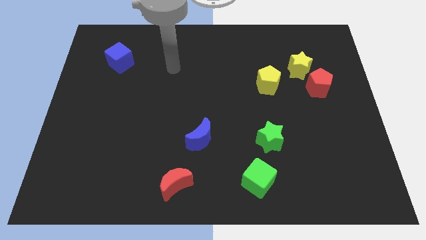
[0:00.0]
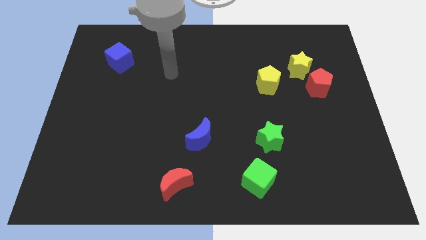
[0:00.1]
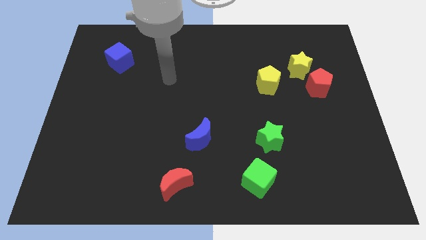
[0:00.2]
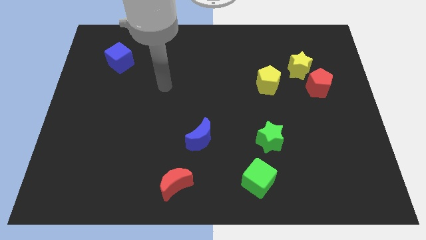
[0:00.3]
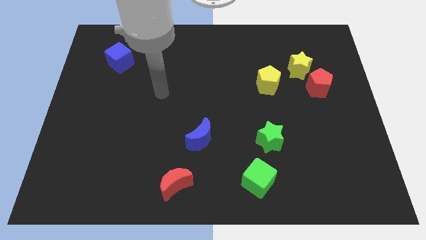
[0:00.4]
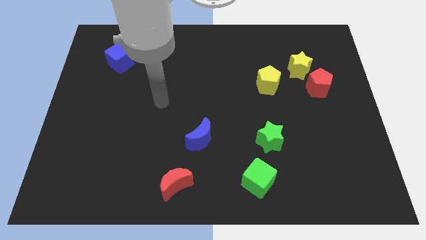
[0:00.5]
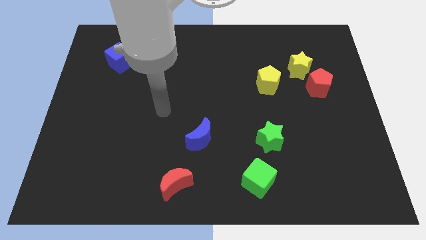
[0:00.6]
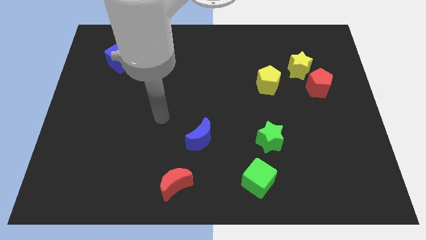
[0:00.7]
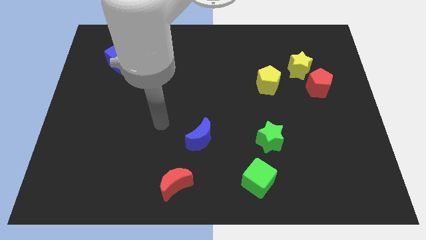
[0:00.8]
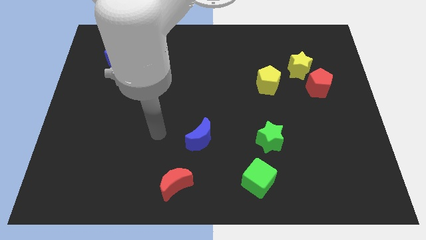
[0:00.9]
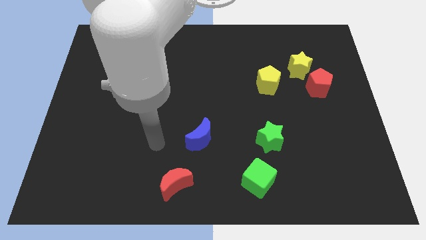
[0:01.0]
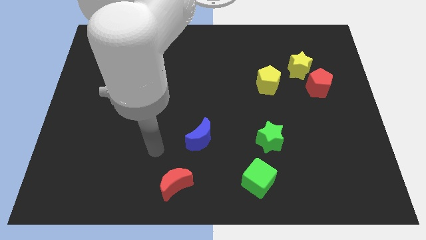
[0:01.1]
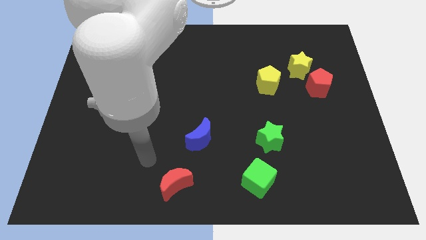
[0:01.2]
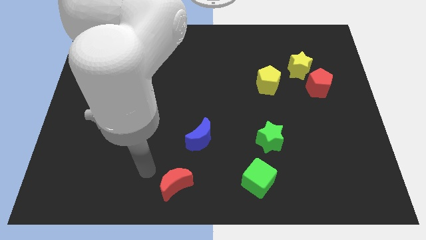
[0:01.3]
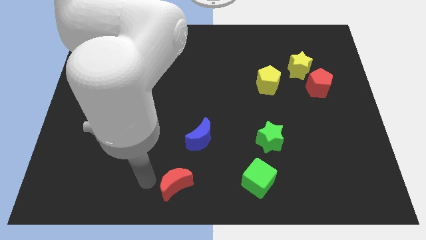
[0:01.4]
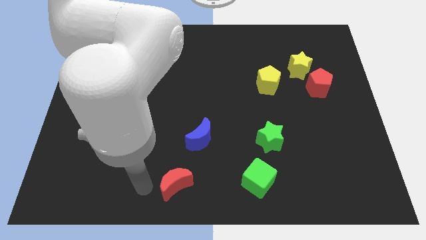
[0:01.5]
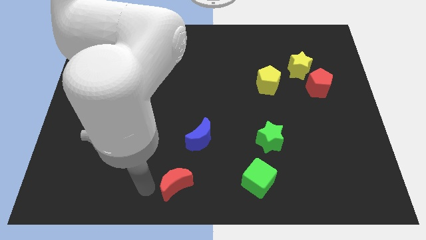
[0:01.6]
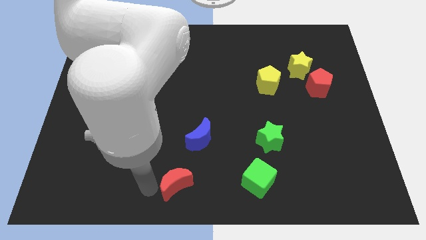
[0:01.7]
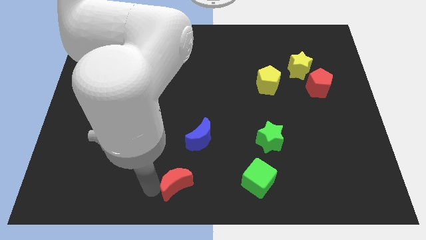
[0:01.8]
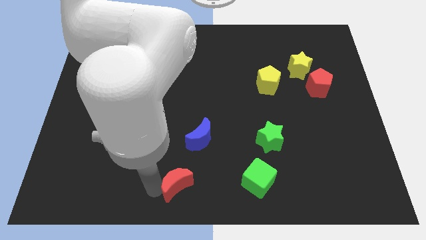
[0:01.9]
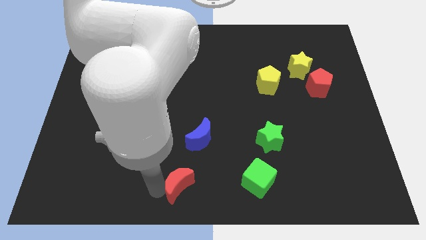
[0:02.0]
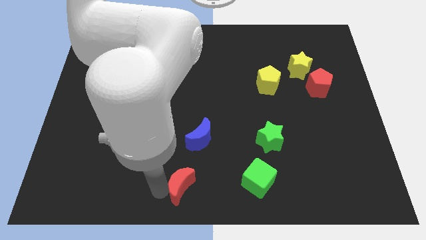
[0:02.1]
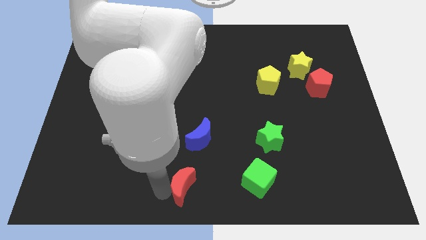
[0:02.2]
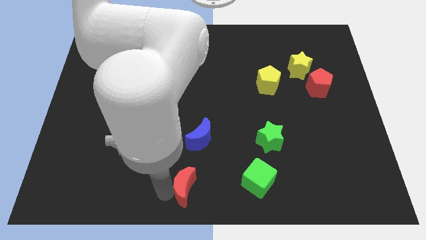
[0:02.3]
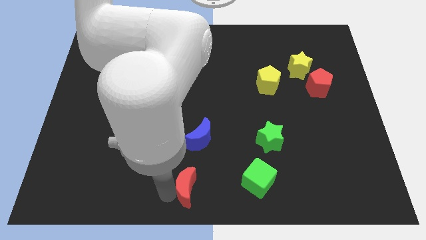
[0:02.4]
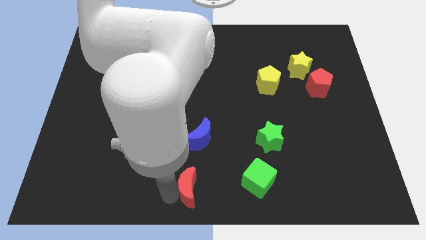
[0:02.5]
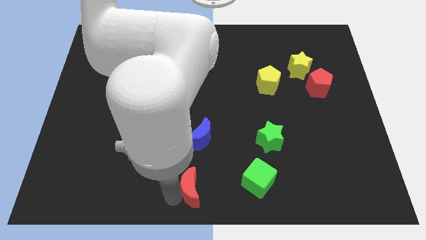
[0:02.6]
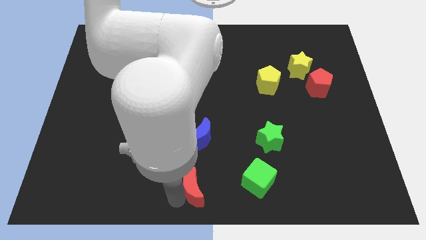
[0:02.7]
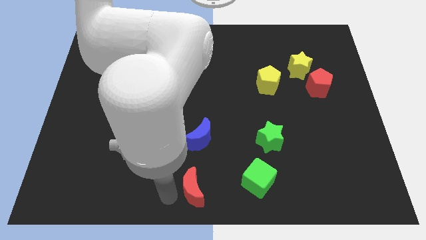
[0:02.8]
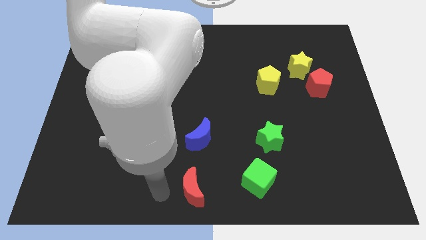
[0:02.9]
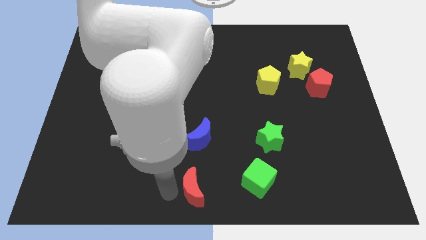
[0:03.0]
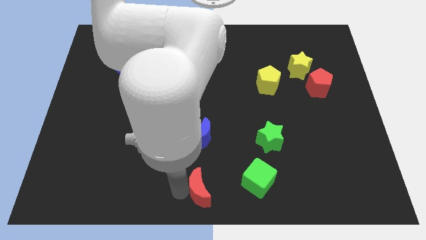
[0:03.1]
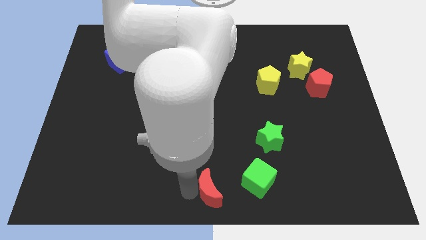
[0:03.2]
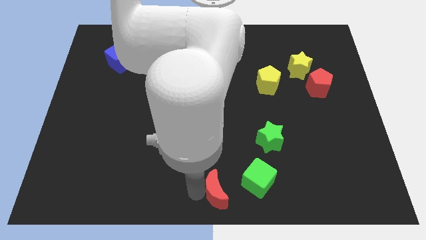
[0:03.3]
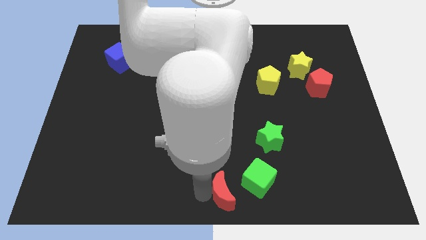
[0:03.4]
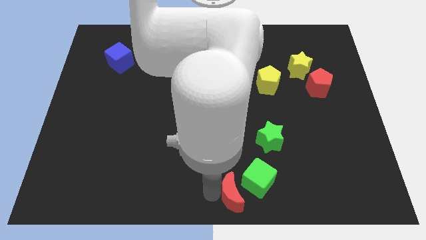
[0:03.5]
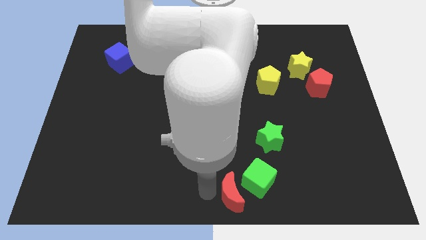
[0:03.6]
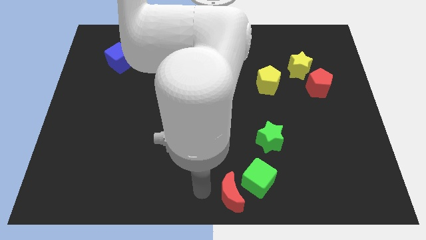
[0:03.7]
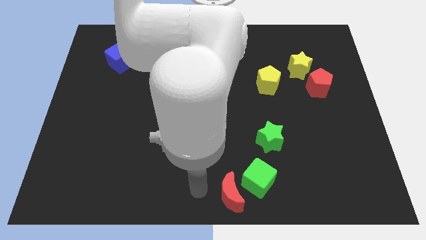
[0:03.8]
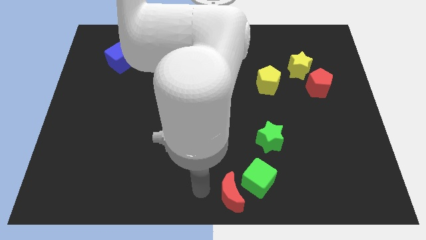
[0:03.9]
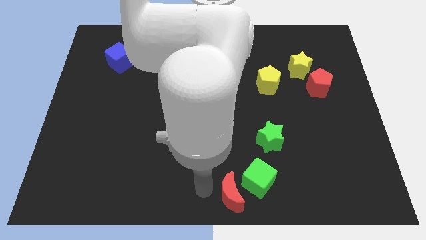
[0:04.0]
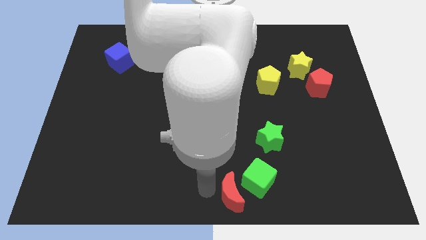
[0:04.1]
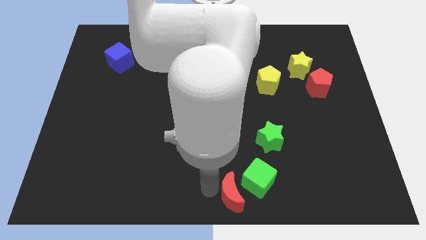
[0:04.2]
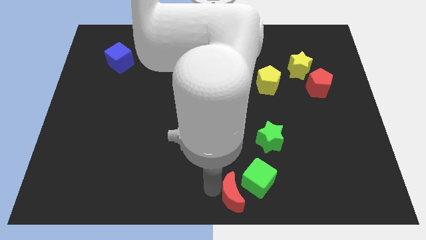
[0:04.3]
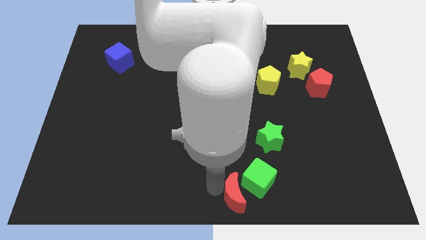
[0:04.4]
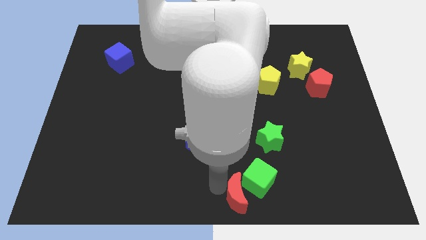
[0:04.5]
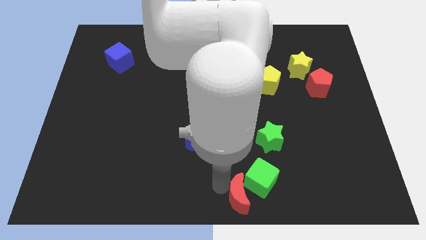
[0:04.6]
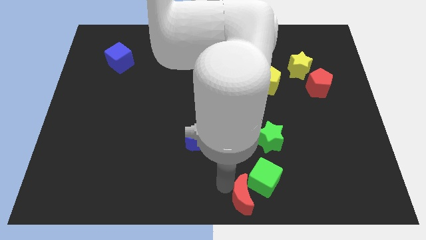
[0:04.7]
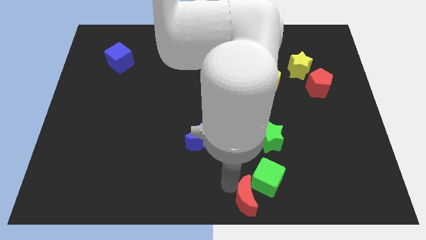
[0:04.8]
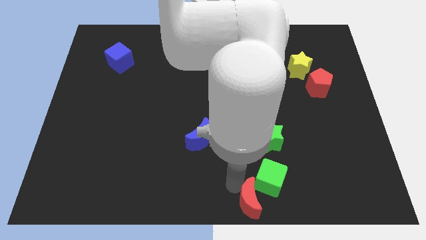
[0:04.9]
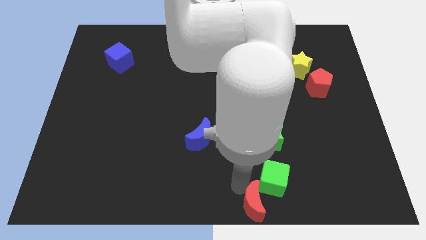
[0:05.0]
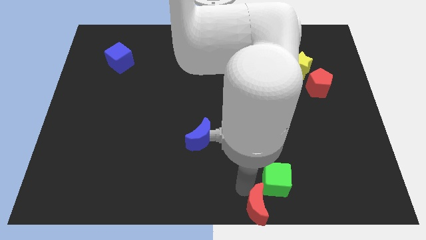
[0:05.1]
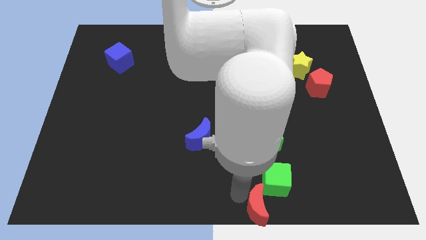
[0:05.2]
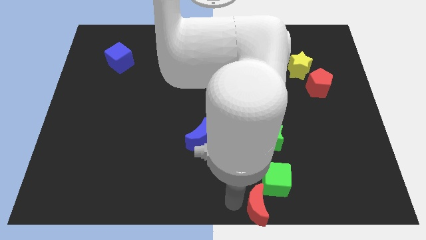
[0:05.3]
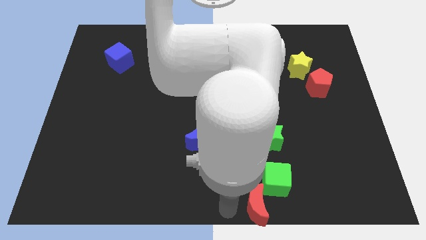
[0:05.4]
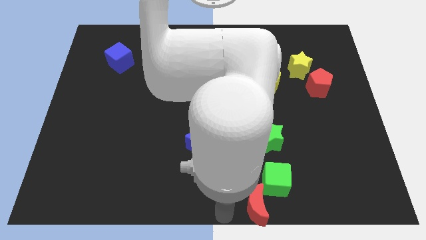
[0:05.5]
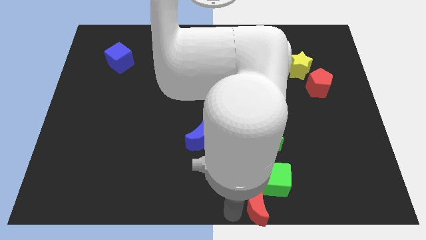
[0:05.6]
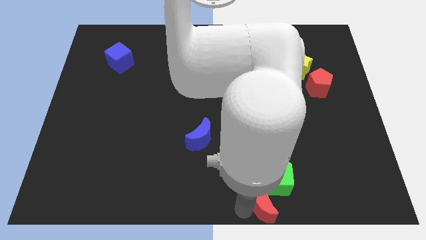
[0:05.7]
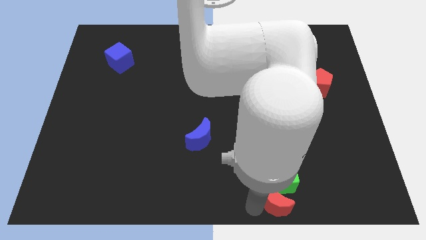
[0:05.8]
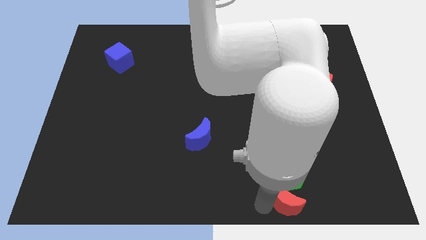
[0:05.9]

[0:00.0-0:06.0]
push the red moon to the right

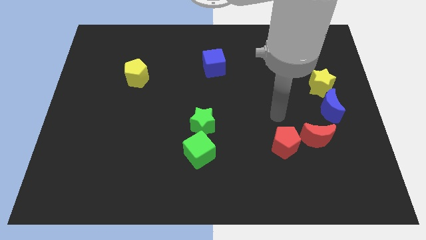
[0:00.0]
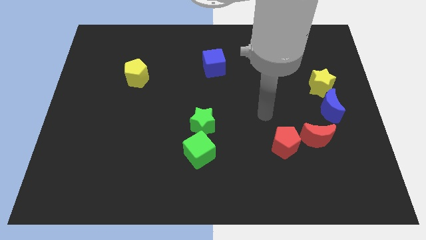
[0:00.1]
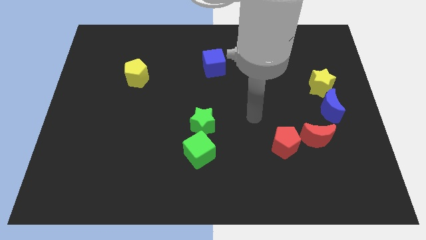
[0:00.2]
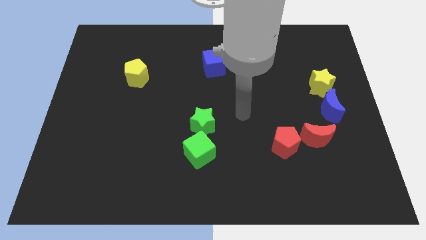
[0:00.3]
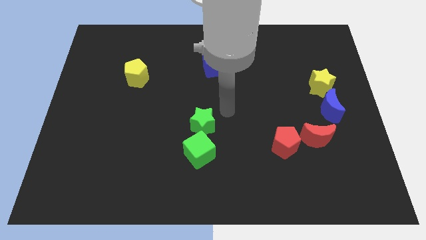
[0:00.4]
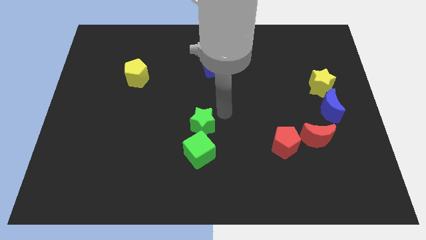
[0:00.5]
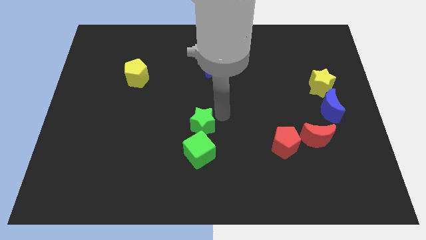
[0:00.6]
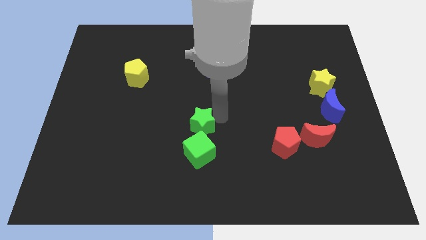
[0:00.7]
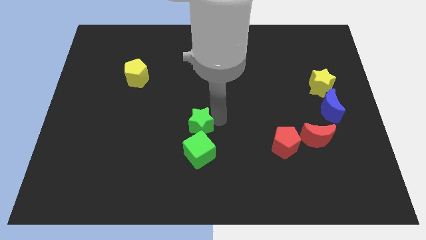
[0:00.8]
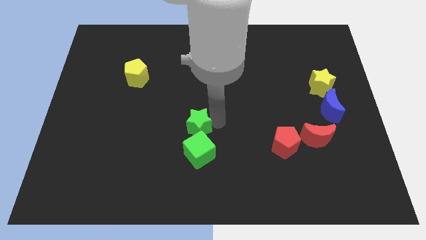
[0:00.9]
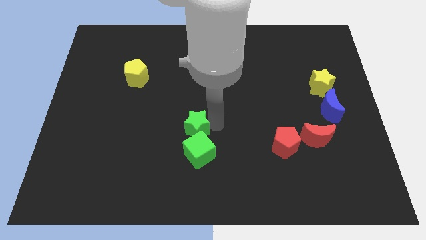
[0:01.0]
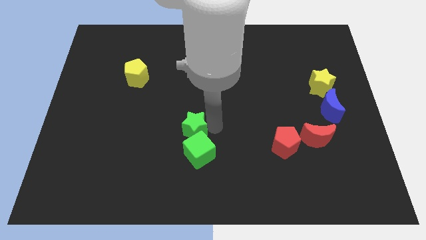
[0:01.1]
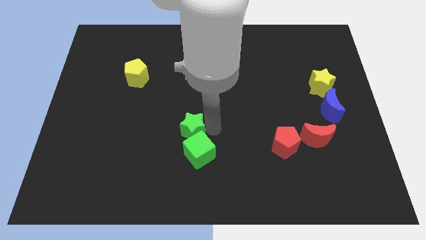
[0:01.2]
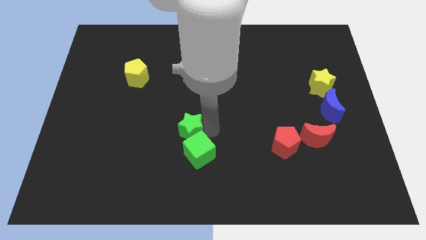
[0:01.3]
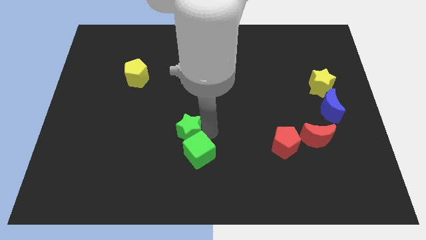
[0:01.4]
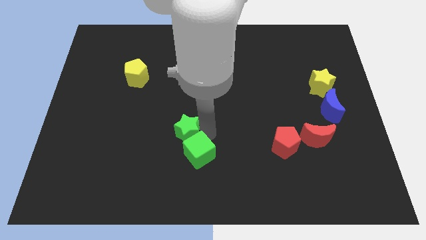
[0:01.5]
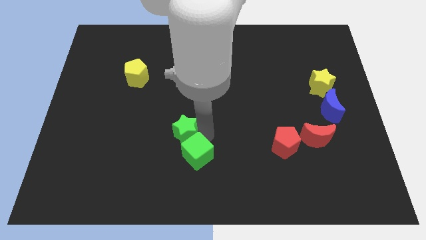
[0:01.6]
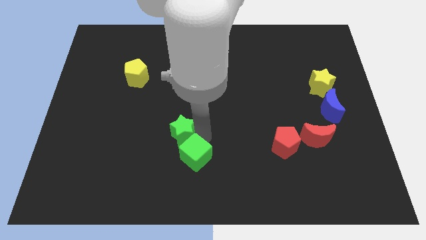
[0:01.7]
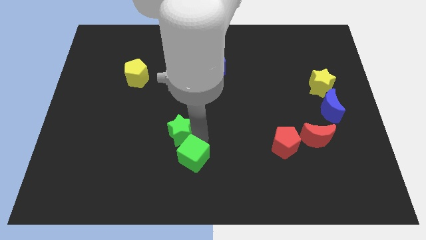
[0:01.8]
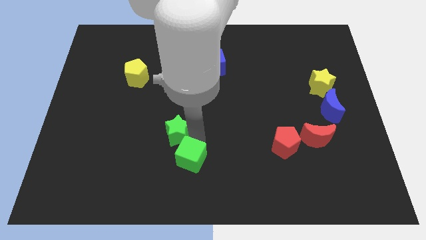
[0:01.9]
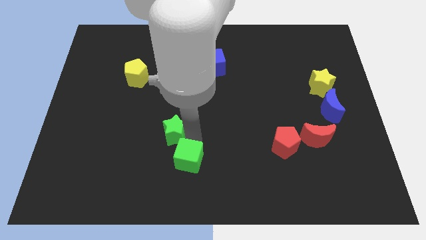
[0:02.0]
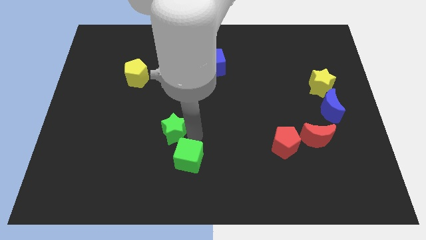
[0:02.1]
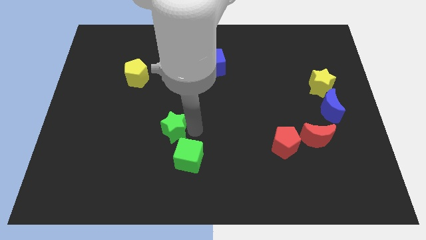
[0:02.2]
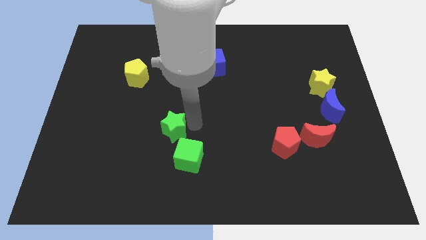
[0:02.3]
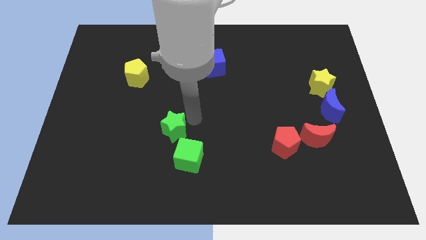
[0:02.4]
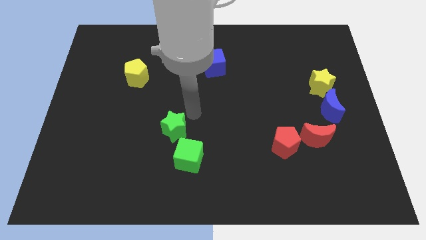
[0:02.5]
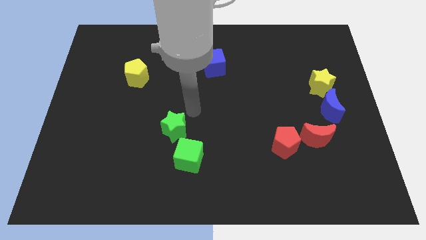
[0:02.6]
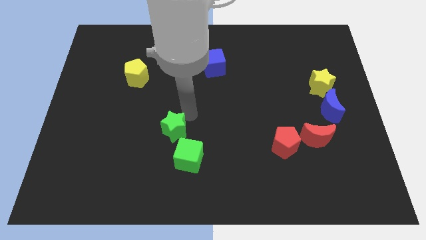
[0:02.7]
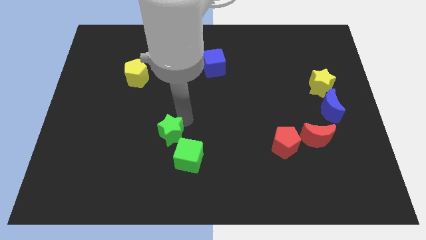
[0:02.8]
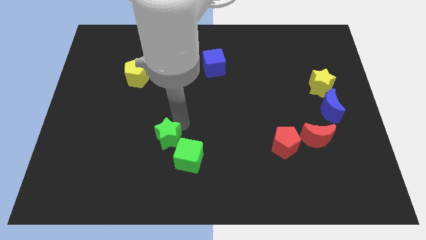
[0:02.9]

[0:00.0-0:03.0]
move the green star diagonally downwards and left somewhat
